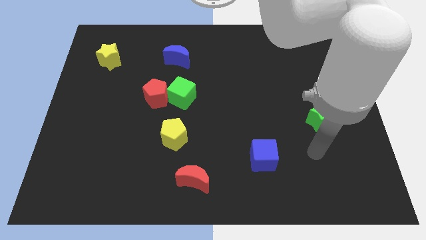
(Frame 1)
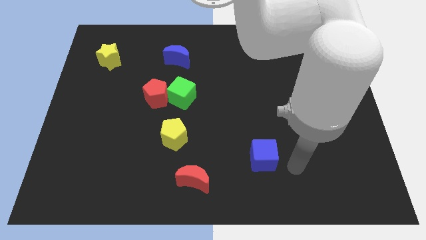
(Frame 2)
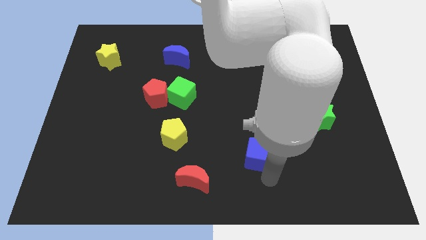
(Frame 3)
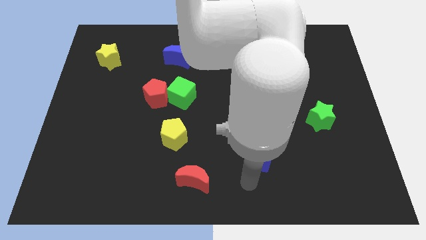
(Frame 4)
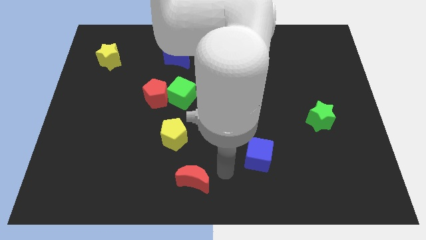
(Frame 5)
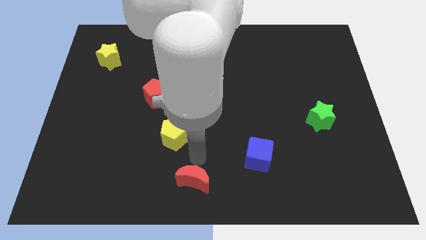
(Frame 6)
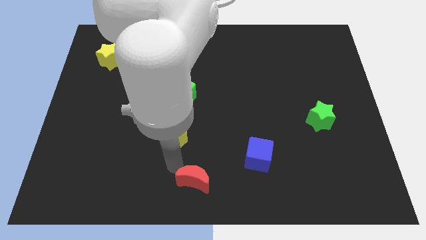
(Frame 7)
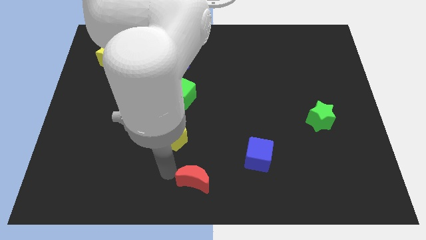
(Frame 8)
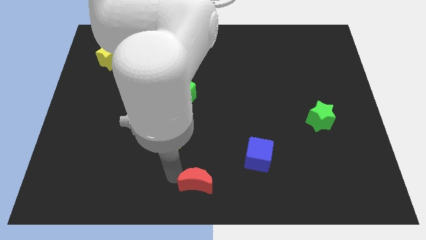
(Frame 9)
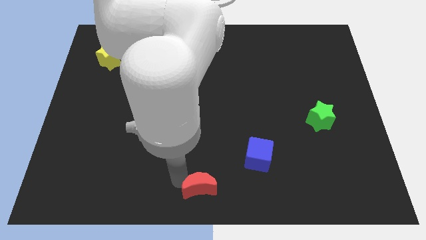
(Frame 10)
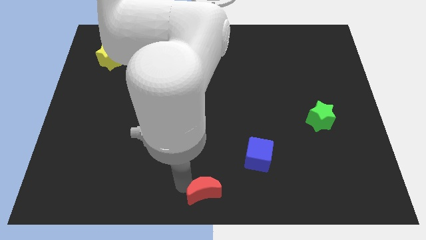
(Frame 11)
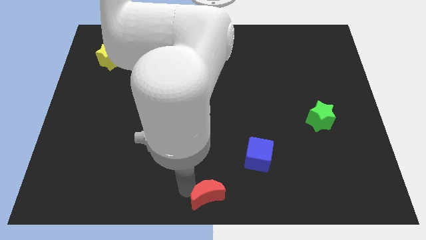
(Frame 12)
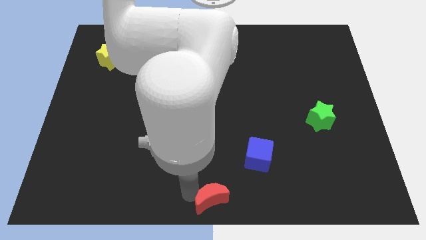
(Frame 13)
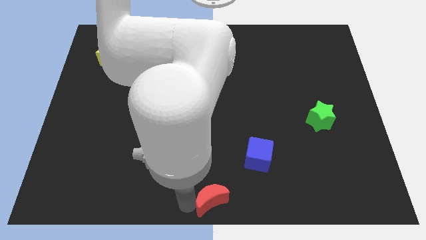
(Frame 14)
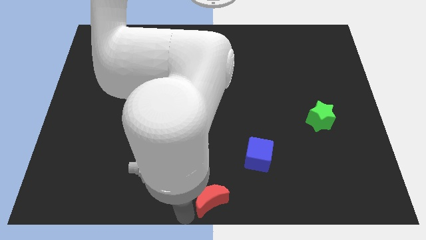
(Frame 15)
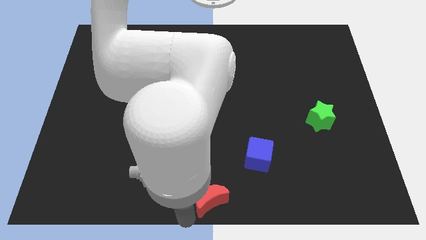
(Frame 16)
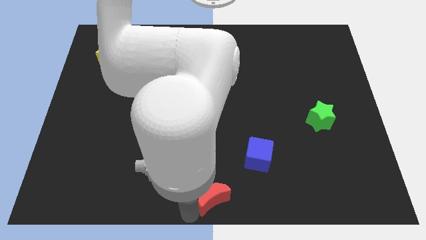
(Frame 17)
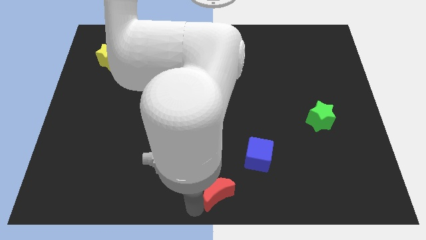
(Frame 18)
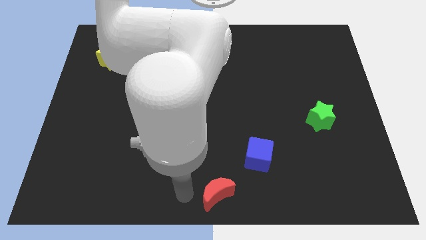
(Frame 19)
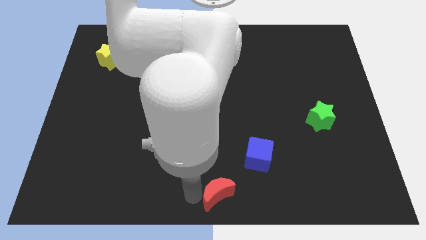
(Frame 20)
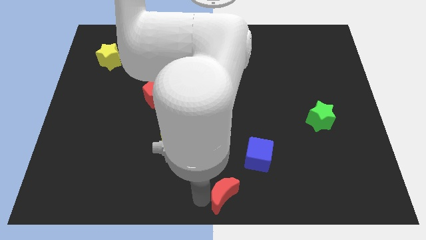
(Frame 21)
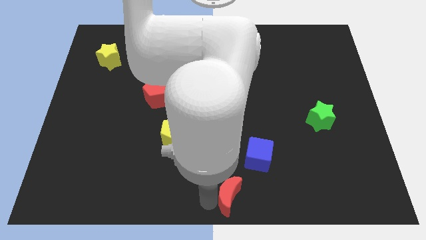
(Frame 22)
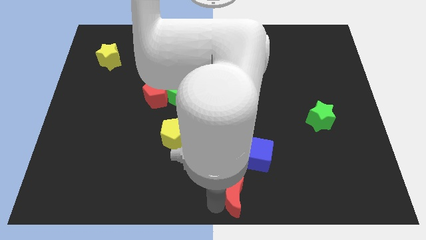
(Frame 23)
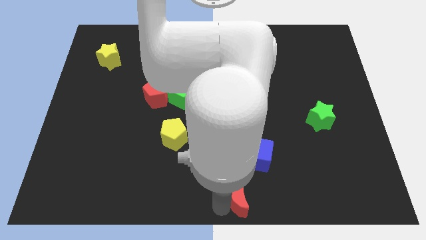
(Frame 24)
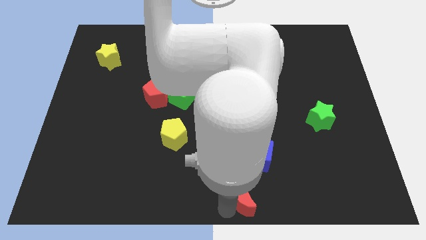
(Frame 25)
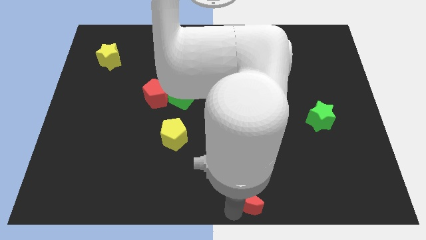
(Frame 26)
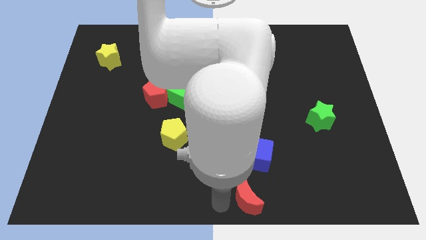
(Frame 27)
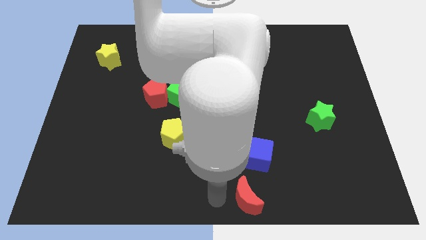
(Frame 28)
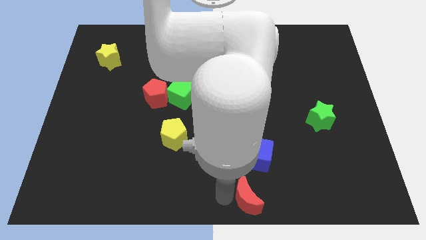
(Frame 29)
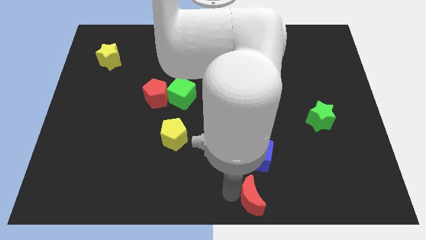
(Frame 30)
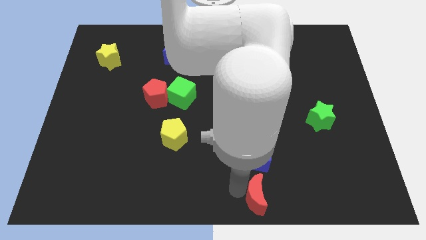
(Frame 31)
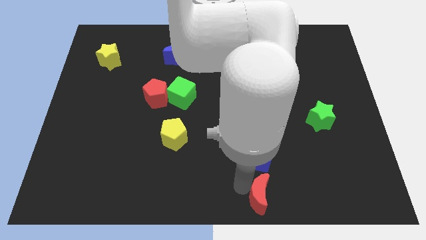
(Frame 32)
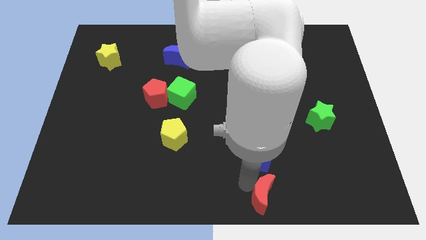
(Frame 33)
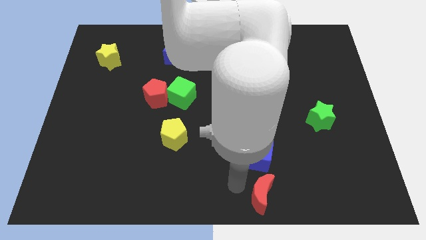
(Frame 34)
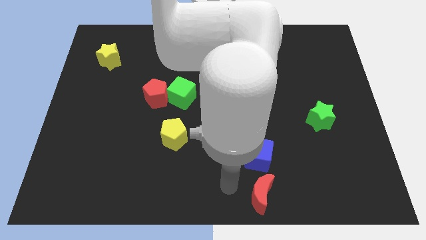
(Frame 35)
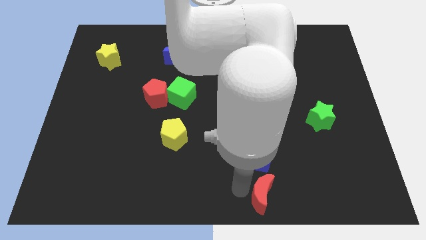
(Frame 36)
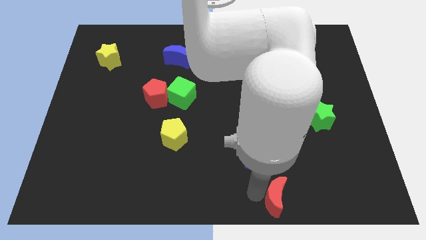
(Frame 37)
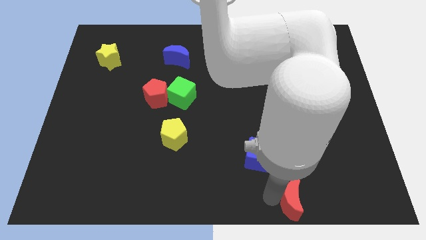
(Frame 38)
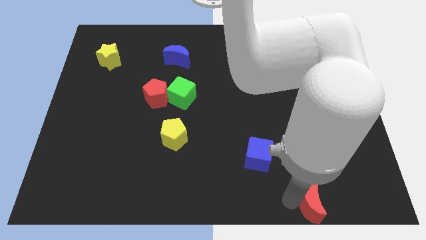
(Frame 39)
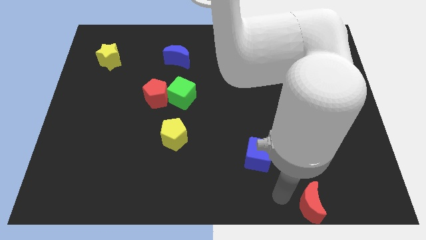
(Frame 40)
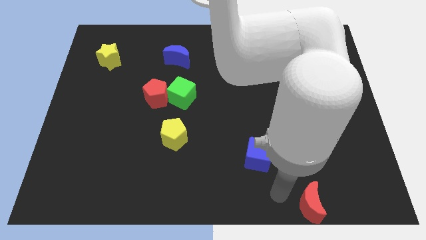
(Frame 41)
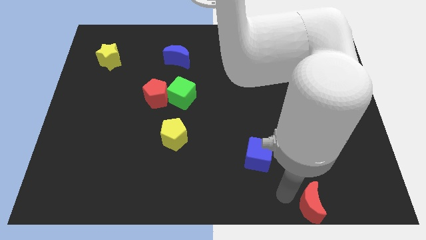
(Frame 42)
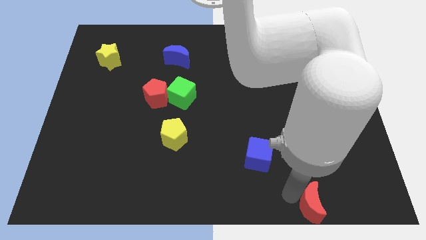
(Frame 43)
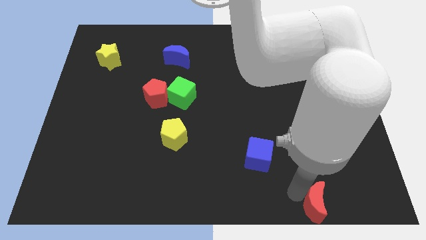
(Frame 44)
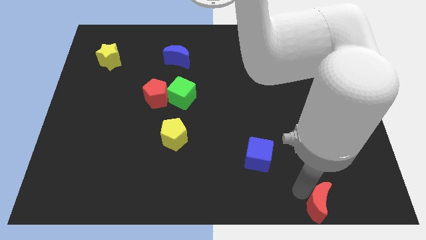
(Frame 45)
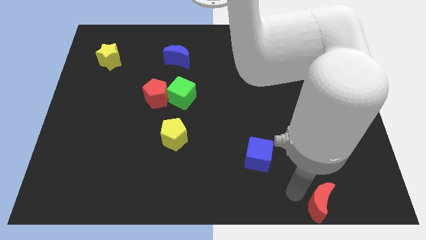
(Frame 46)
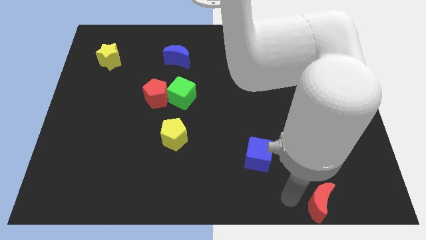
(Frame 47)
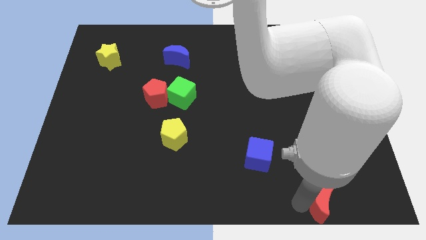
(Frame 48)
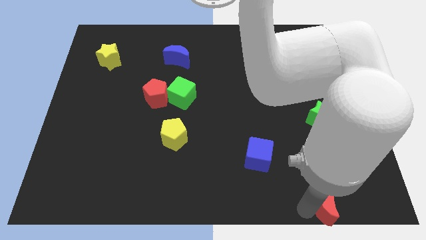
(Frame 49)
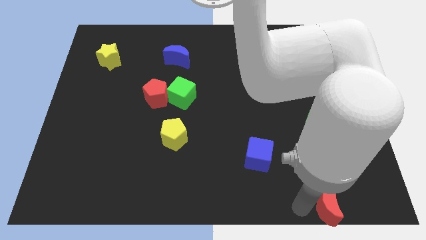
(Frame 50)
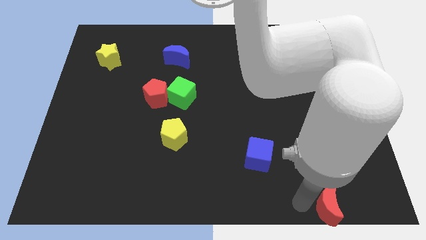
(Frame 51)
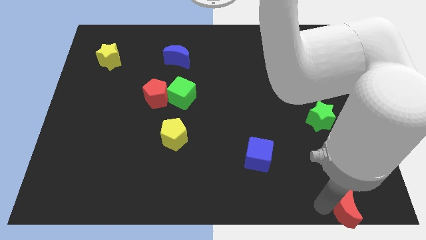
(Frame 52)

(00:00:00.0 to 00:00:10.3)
put the red moon to the bottom right

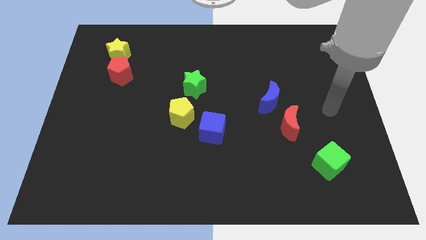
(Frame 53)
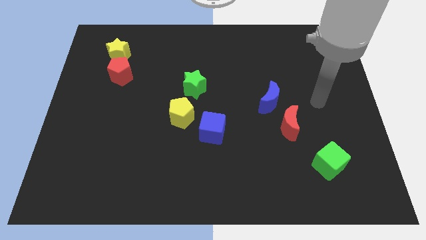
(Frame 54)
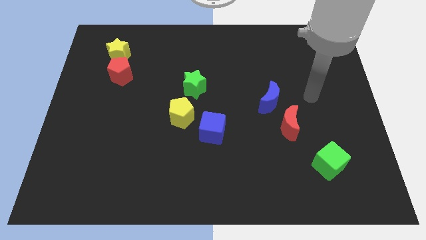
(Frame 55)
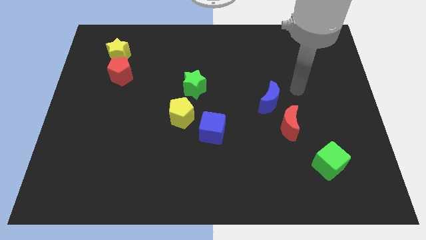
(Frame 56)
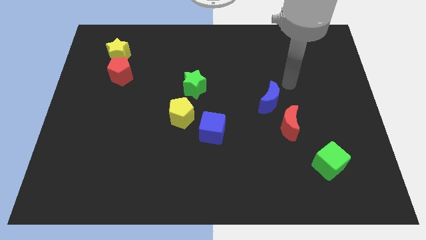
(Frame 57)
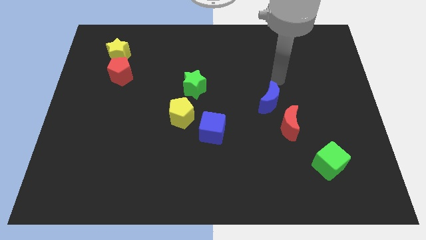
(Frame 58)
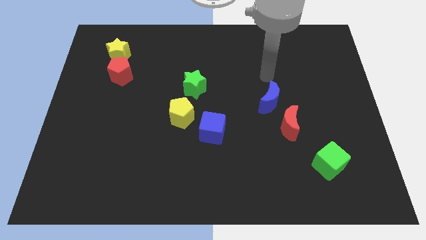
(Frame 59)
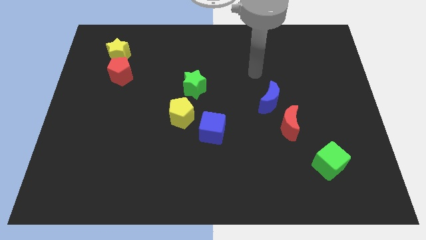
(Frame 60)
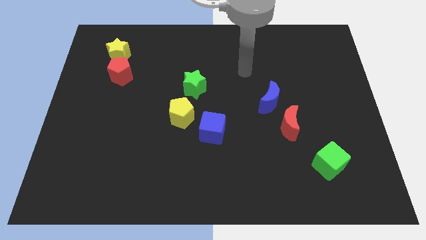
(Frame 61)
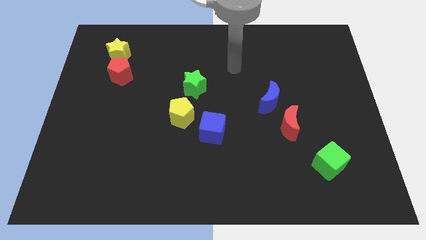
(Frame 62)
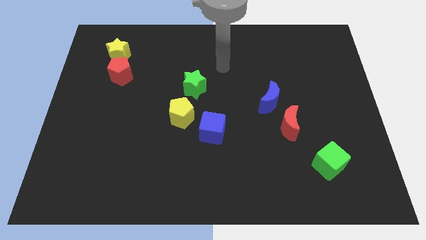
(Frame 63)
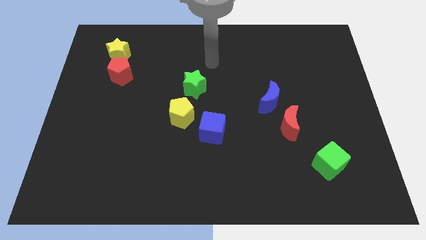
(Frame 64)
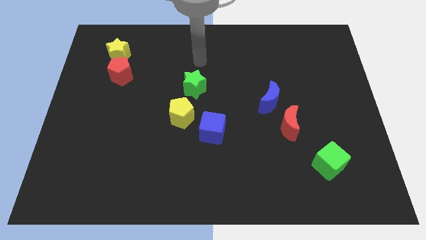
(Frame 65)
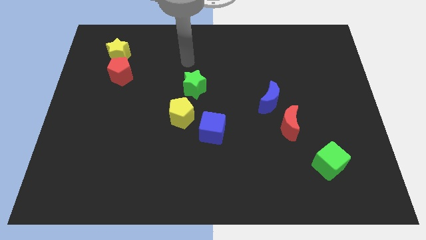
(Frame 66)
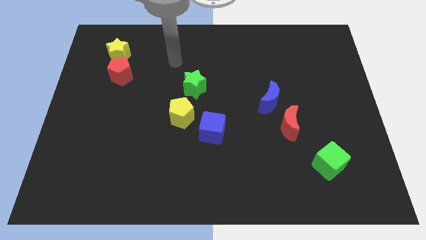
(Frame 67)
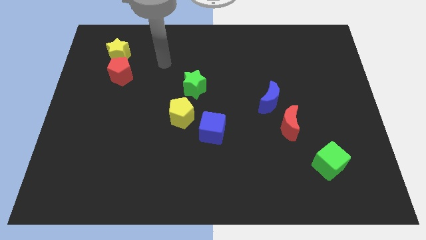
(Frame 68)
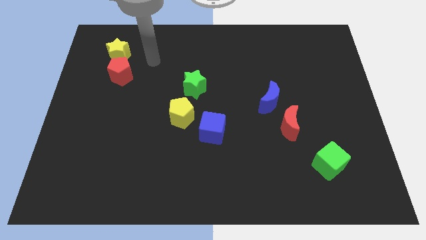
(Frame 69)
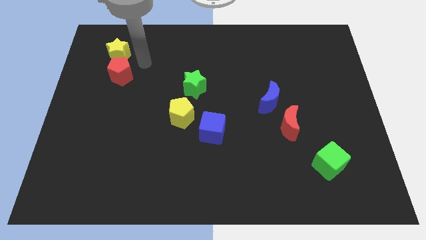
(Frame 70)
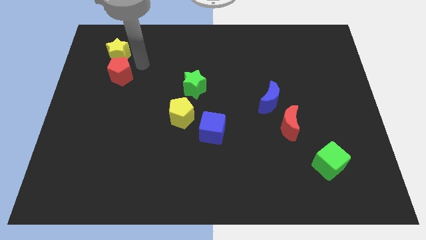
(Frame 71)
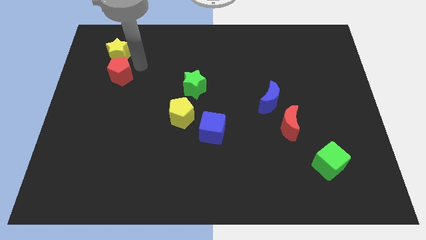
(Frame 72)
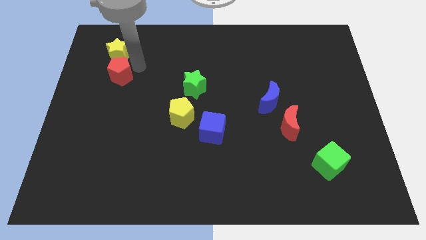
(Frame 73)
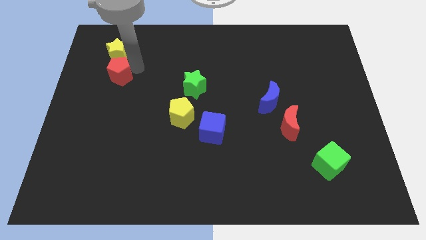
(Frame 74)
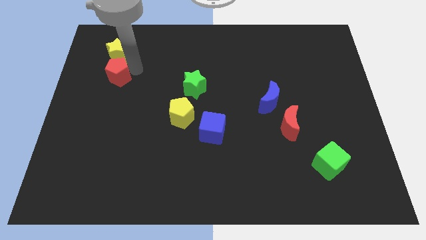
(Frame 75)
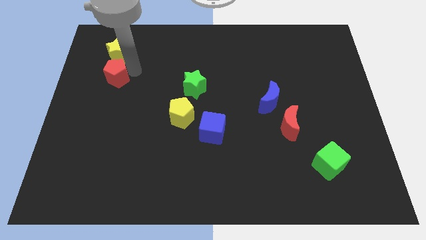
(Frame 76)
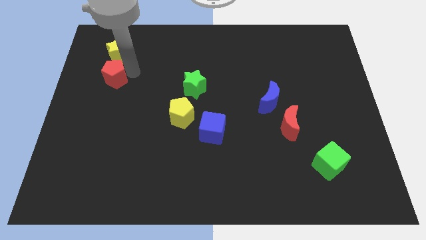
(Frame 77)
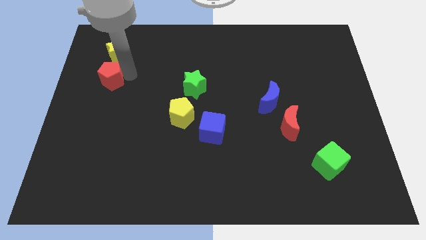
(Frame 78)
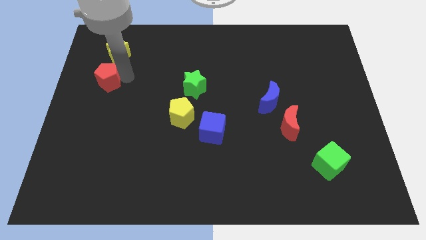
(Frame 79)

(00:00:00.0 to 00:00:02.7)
push the red pentagon to the center left
